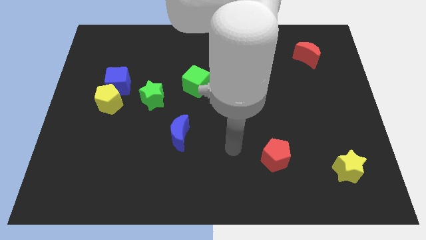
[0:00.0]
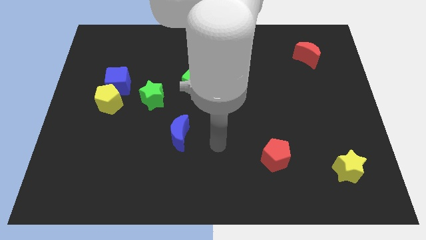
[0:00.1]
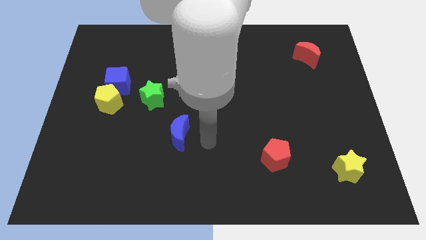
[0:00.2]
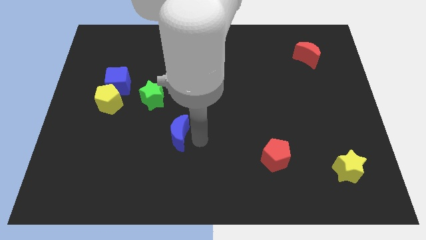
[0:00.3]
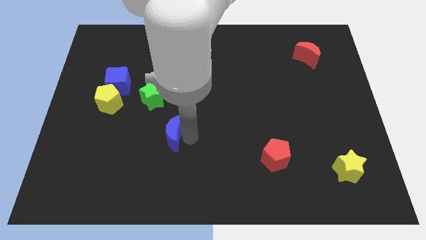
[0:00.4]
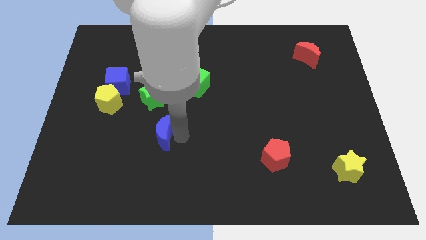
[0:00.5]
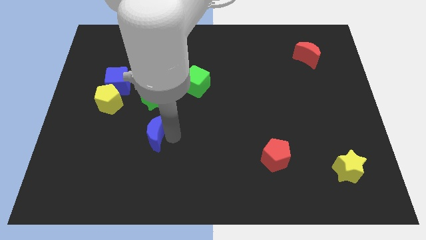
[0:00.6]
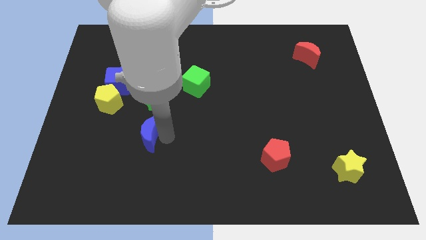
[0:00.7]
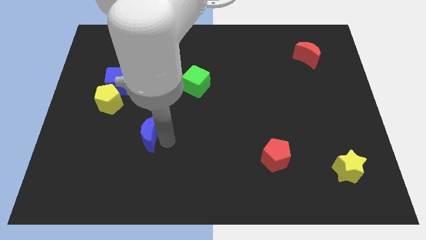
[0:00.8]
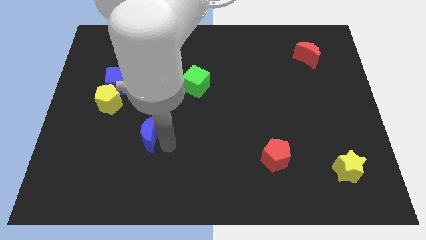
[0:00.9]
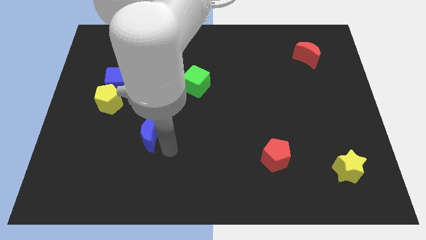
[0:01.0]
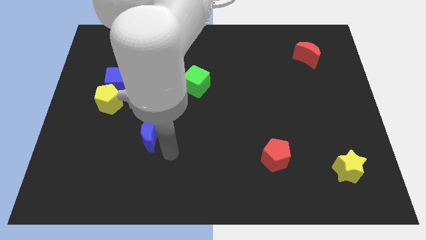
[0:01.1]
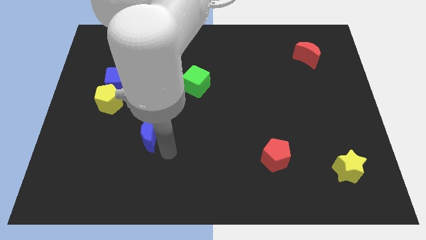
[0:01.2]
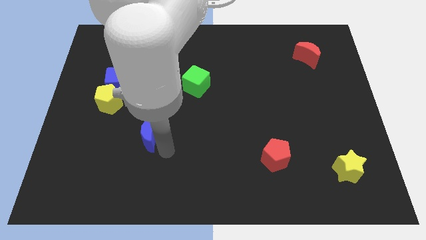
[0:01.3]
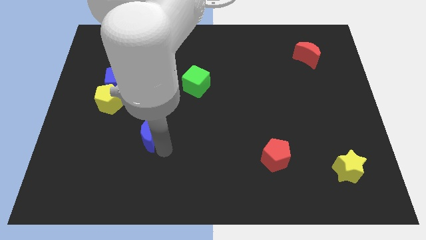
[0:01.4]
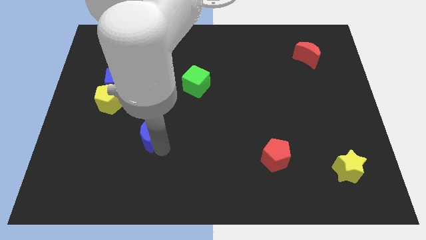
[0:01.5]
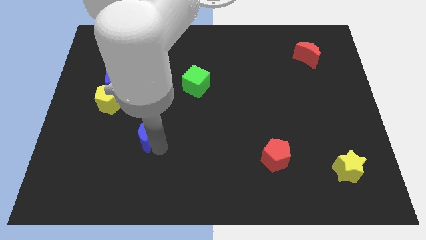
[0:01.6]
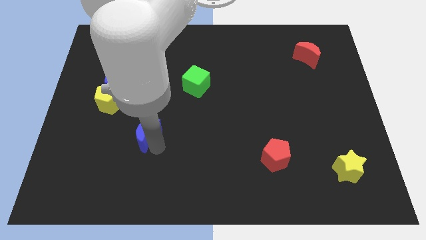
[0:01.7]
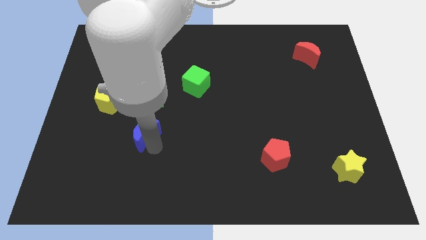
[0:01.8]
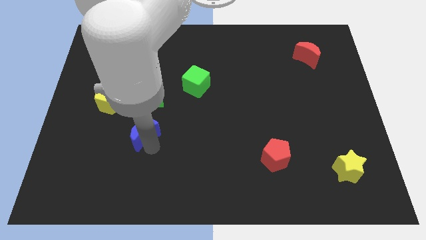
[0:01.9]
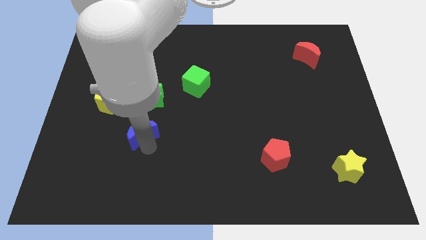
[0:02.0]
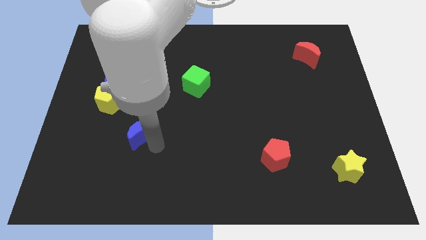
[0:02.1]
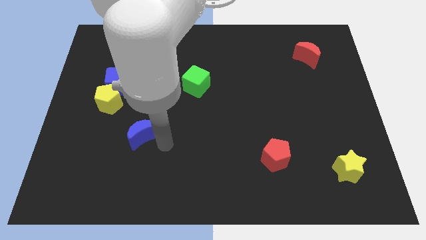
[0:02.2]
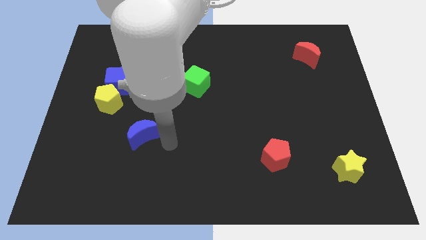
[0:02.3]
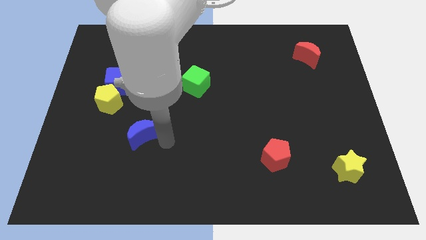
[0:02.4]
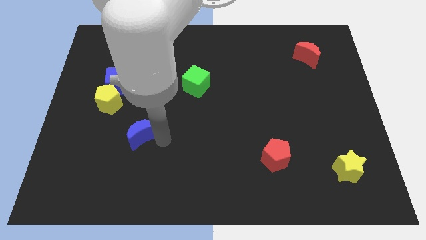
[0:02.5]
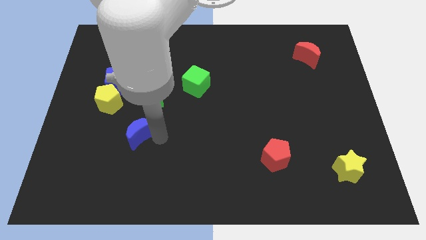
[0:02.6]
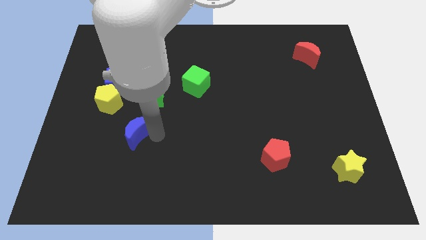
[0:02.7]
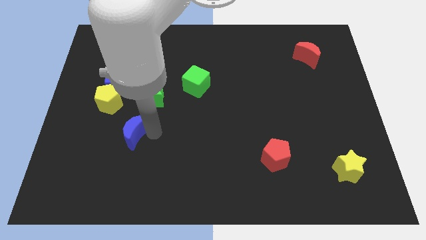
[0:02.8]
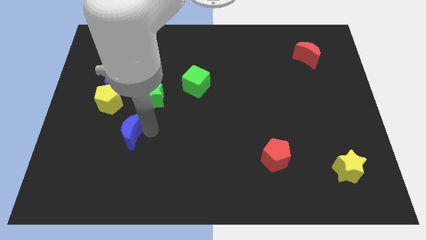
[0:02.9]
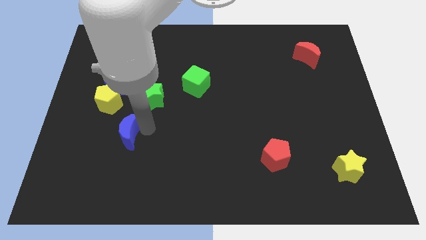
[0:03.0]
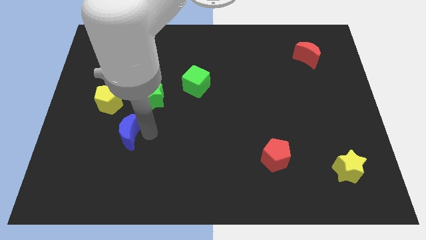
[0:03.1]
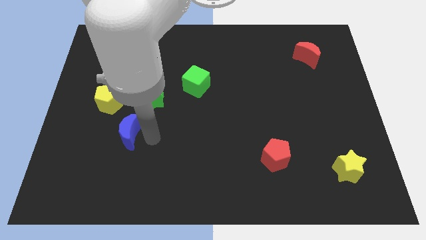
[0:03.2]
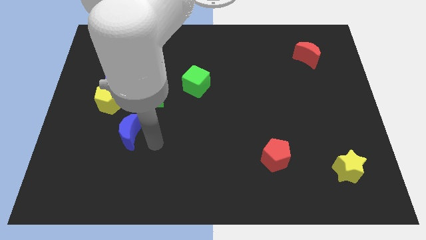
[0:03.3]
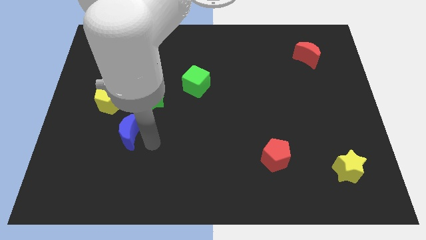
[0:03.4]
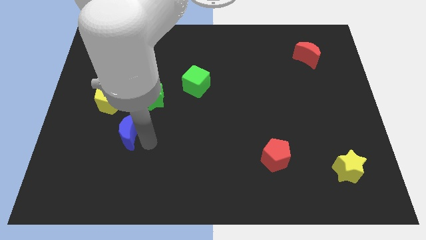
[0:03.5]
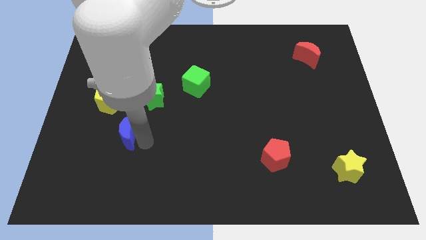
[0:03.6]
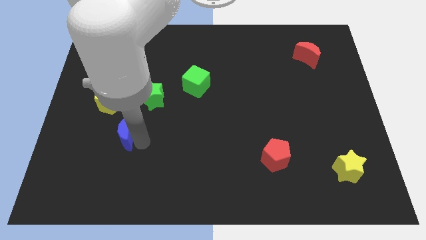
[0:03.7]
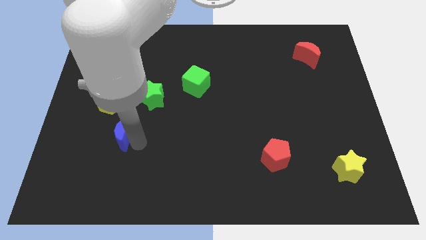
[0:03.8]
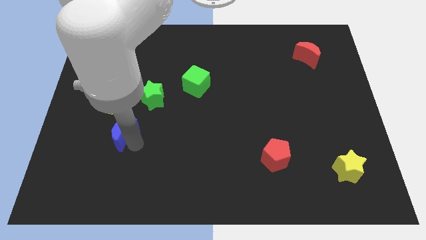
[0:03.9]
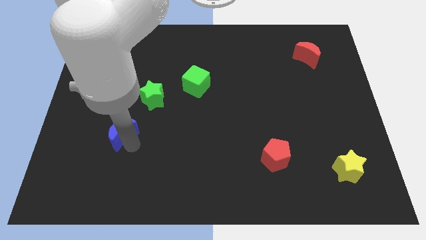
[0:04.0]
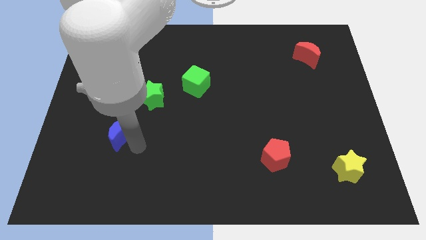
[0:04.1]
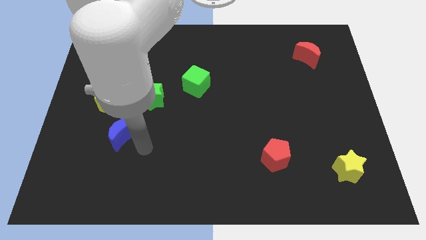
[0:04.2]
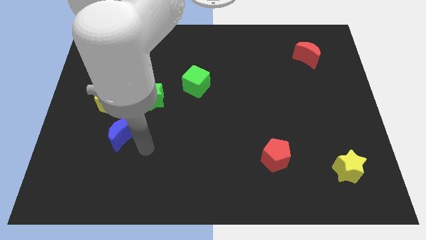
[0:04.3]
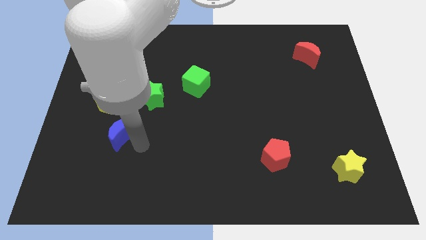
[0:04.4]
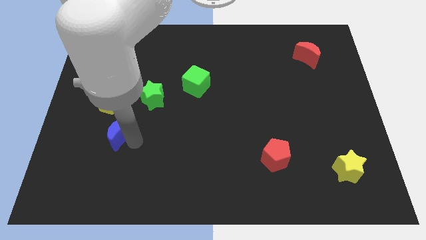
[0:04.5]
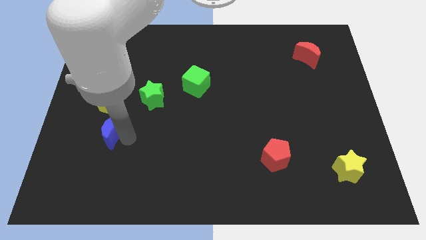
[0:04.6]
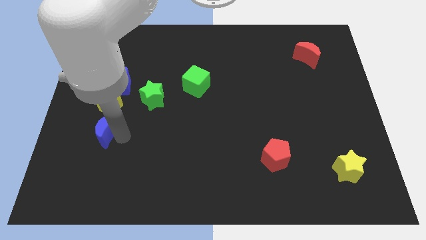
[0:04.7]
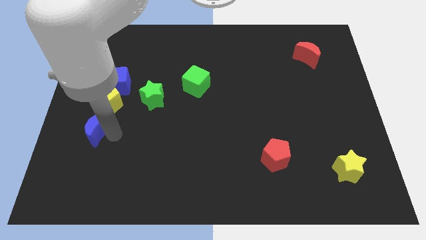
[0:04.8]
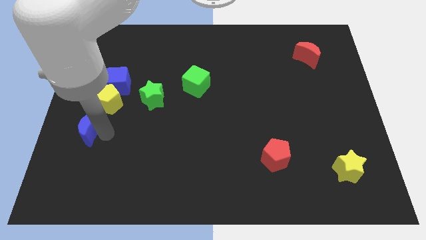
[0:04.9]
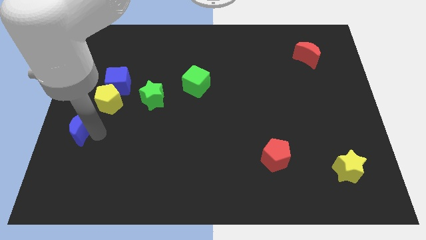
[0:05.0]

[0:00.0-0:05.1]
push the blue moon to the center left

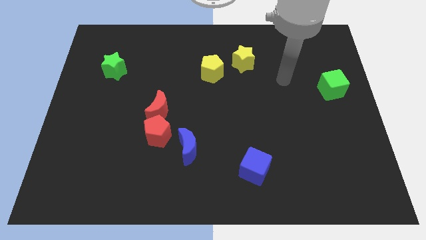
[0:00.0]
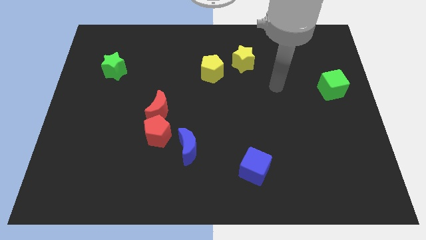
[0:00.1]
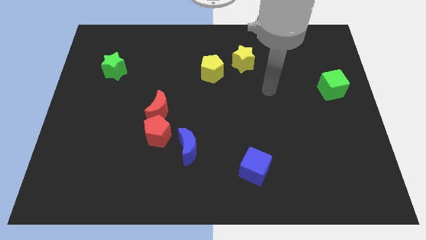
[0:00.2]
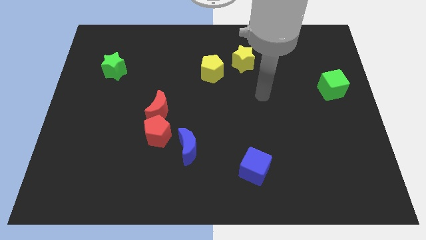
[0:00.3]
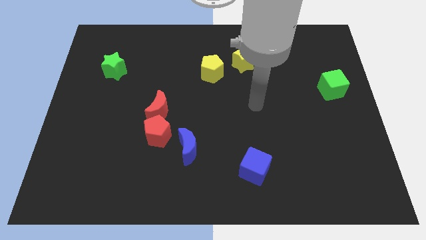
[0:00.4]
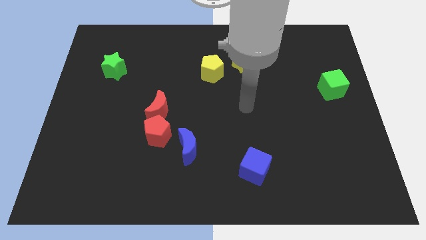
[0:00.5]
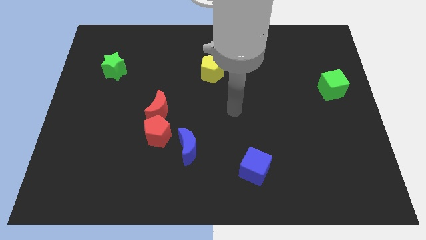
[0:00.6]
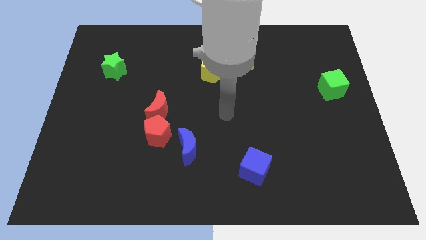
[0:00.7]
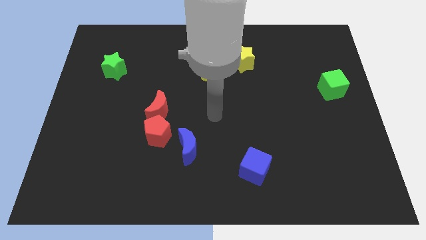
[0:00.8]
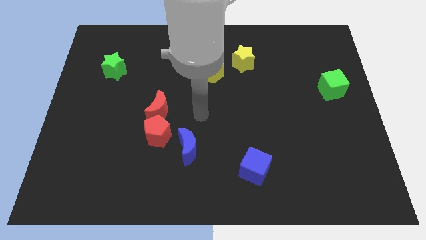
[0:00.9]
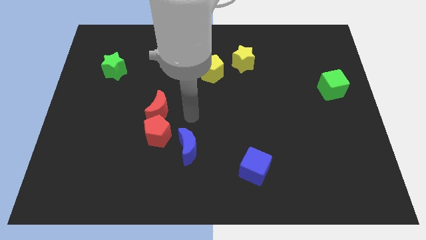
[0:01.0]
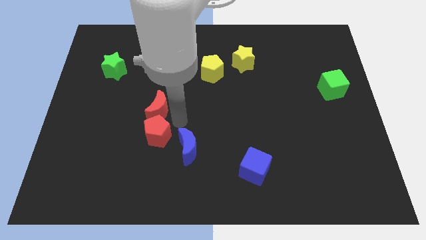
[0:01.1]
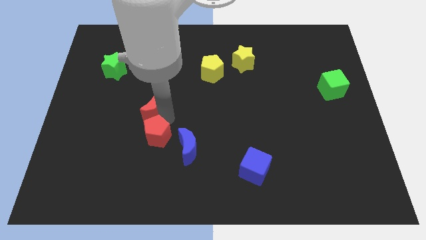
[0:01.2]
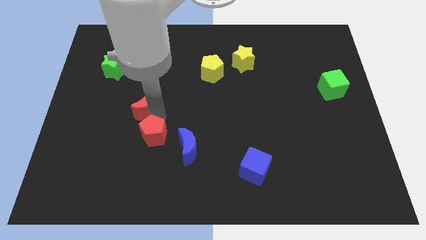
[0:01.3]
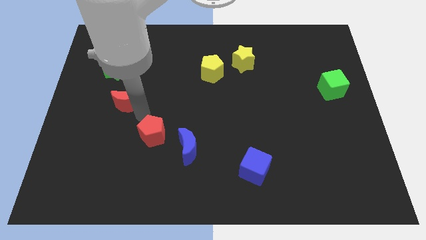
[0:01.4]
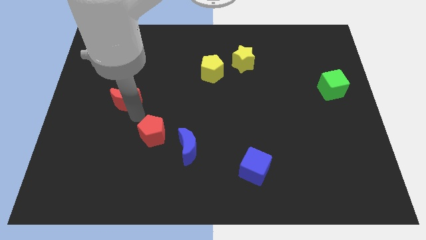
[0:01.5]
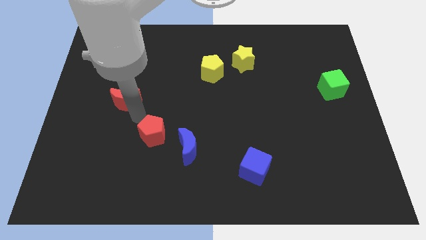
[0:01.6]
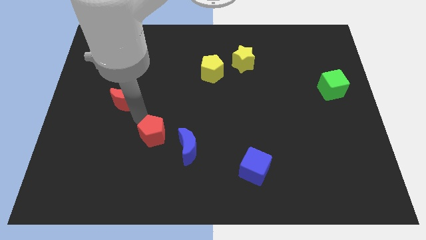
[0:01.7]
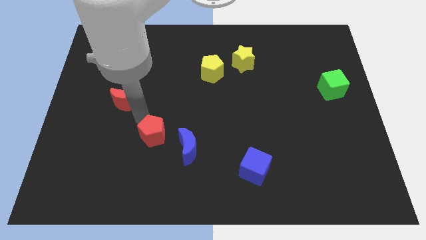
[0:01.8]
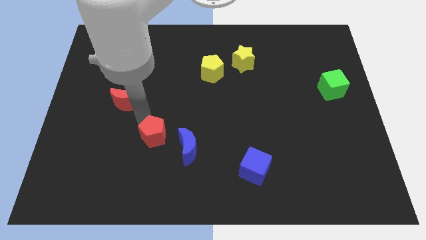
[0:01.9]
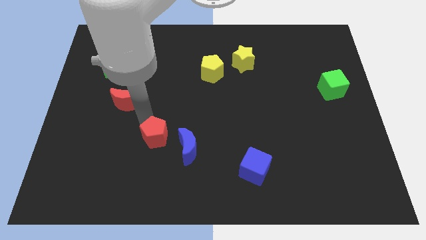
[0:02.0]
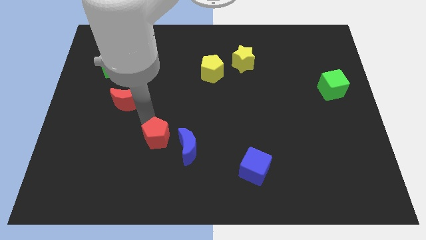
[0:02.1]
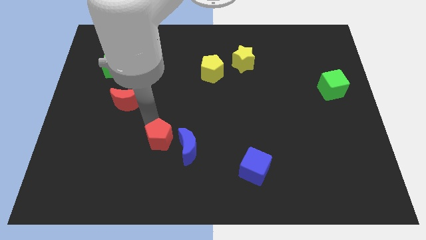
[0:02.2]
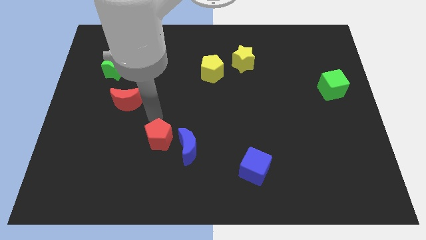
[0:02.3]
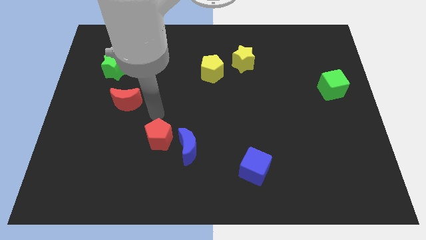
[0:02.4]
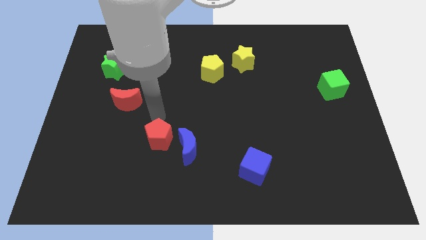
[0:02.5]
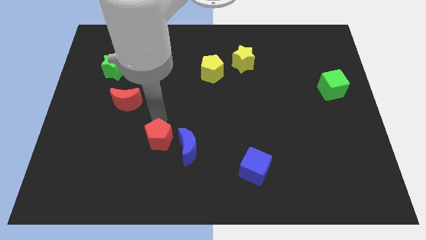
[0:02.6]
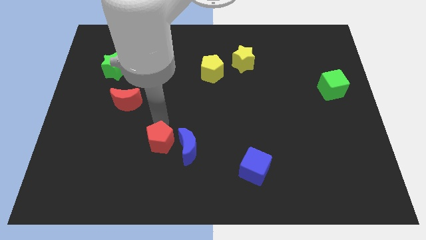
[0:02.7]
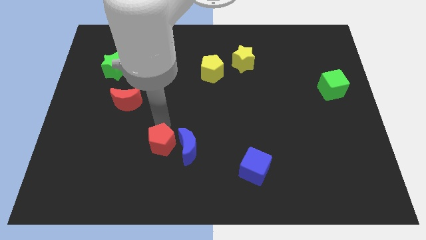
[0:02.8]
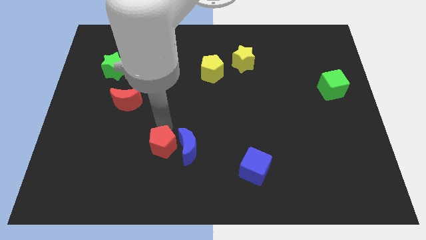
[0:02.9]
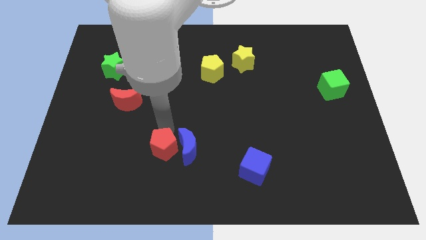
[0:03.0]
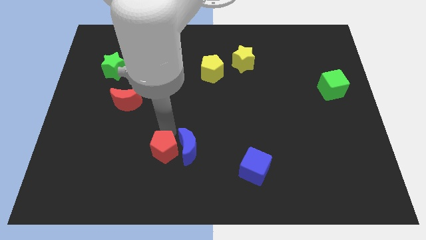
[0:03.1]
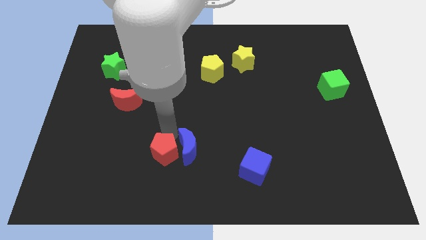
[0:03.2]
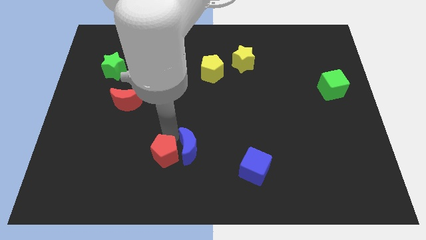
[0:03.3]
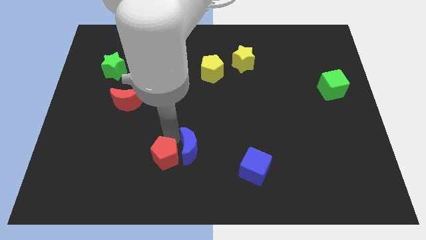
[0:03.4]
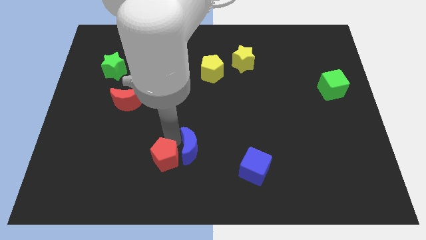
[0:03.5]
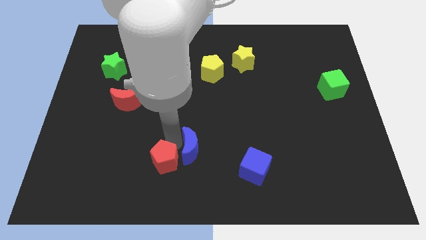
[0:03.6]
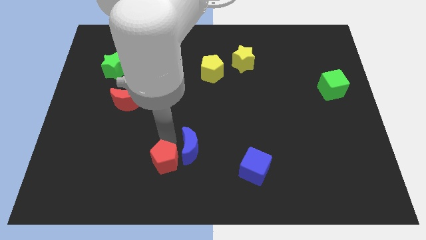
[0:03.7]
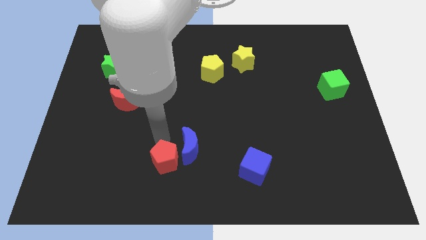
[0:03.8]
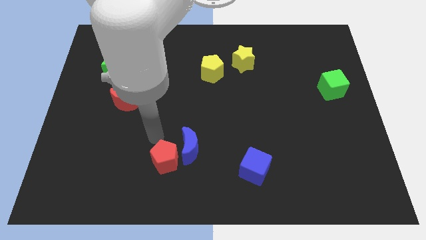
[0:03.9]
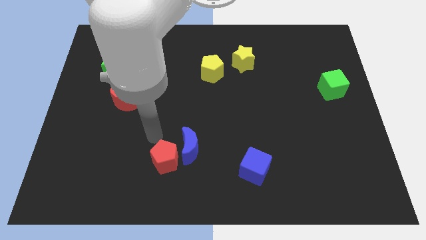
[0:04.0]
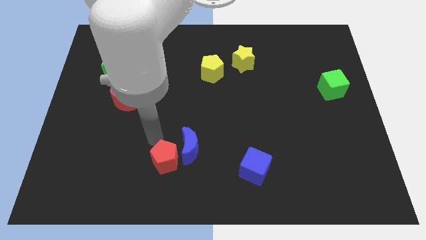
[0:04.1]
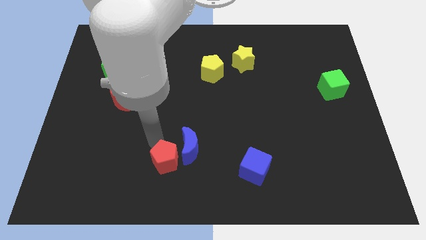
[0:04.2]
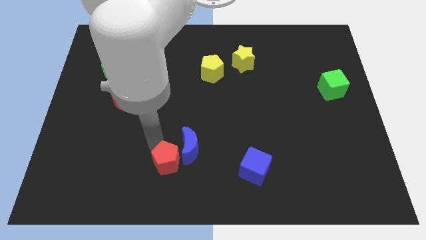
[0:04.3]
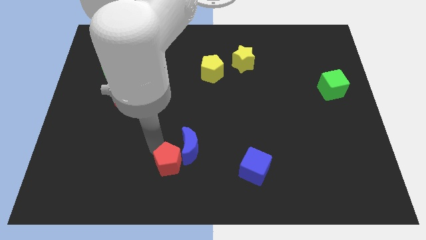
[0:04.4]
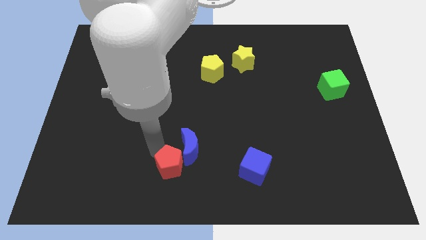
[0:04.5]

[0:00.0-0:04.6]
move the red pentagon to the bottom
